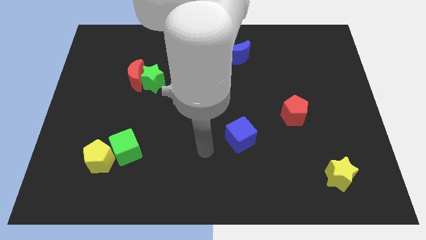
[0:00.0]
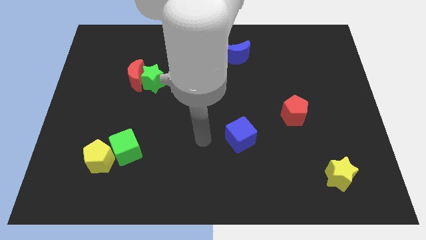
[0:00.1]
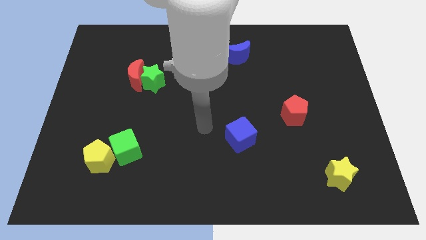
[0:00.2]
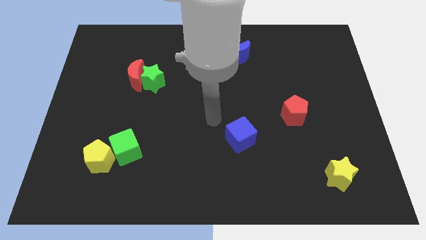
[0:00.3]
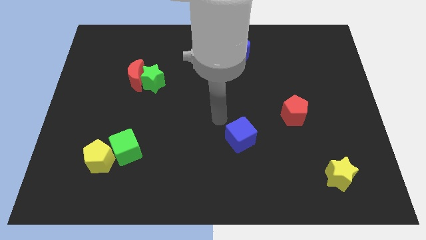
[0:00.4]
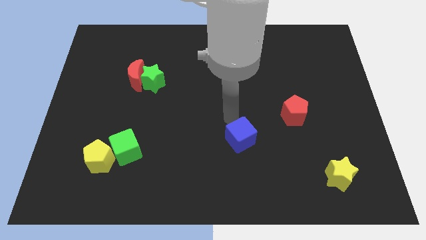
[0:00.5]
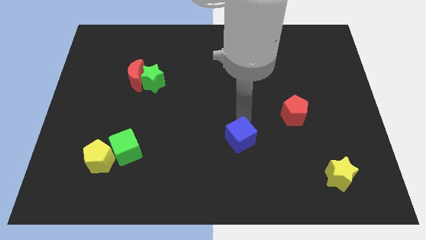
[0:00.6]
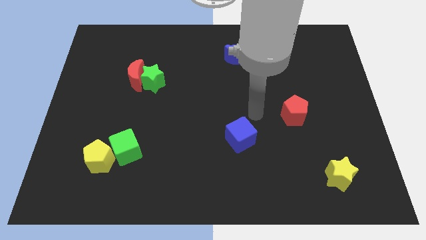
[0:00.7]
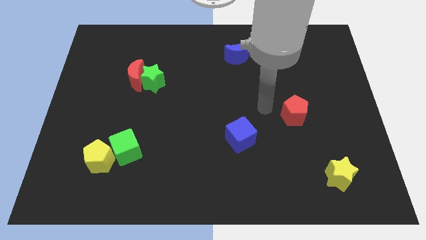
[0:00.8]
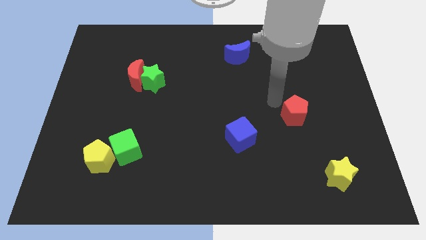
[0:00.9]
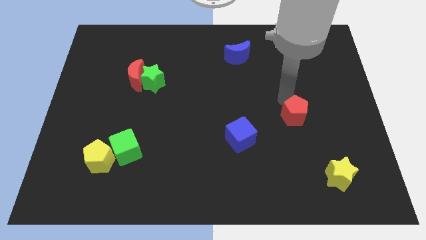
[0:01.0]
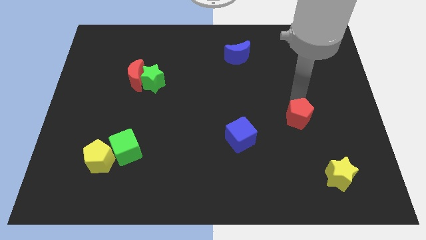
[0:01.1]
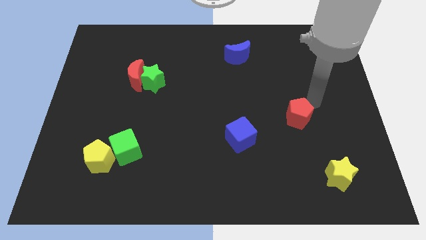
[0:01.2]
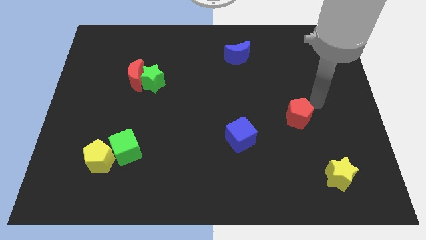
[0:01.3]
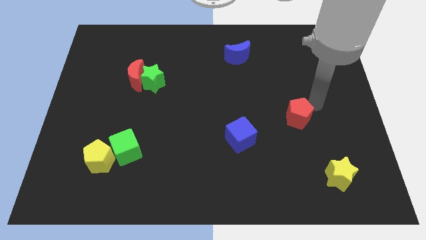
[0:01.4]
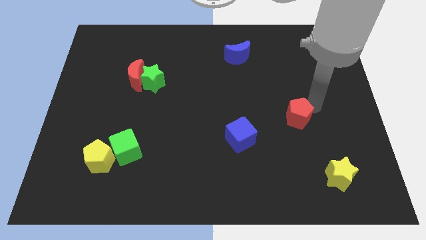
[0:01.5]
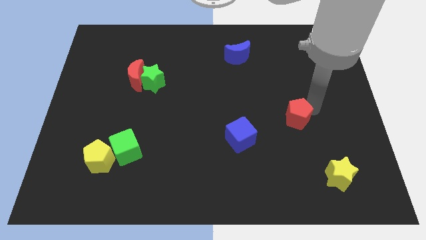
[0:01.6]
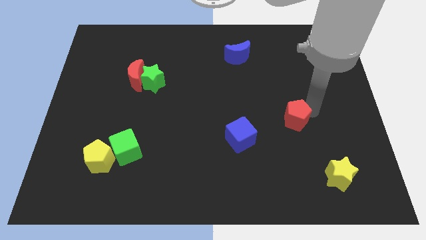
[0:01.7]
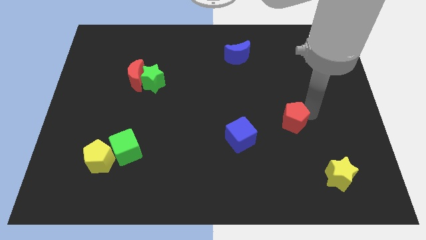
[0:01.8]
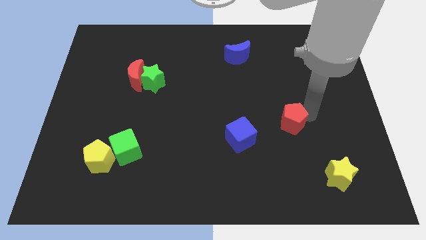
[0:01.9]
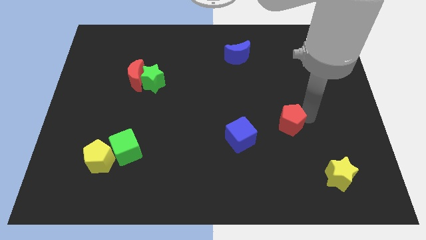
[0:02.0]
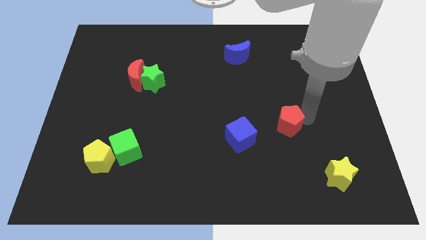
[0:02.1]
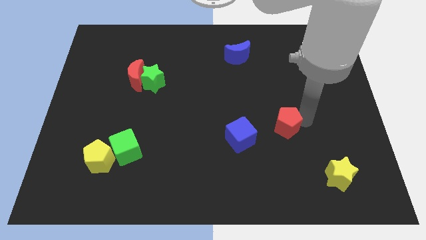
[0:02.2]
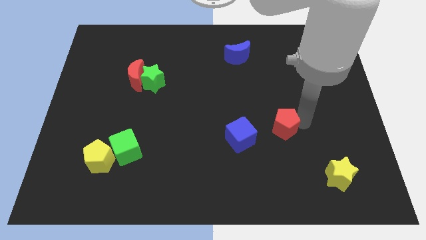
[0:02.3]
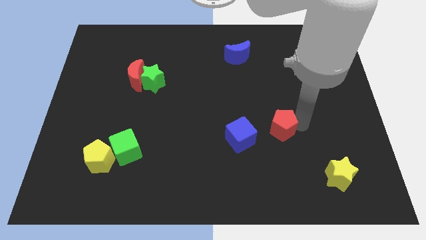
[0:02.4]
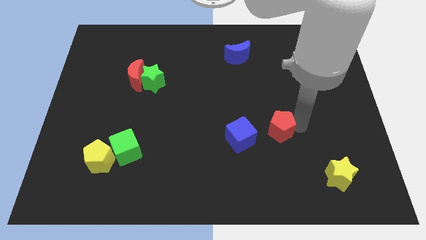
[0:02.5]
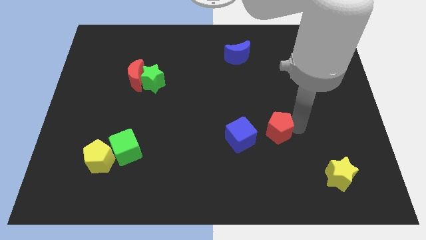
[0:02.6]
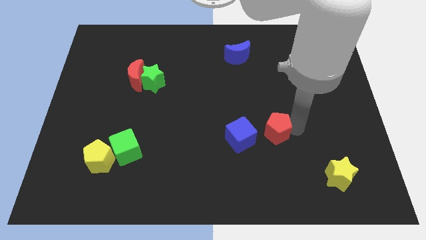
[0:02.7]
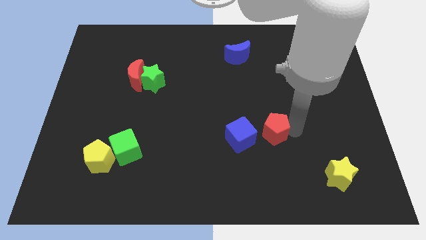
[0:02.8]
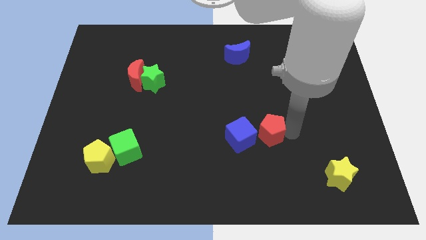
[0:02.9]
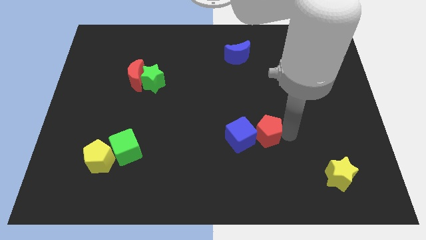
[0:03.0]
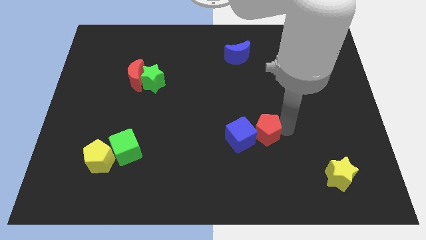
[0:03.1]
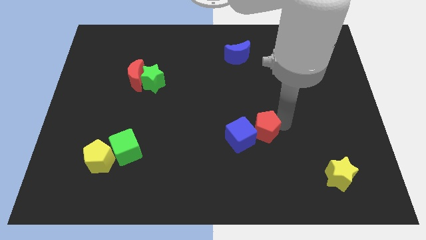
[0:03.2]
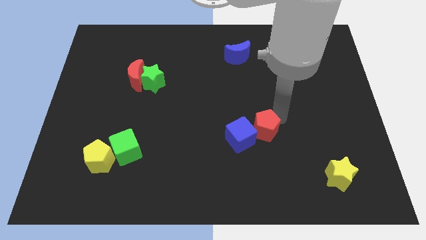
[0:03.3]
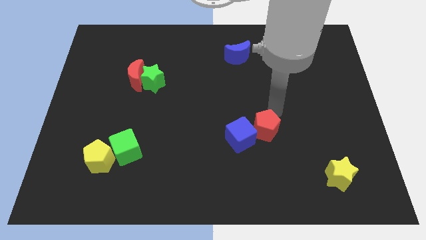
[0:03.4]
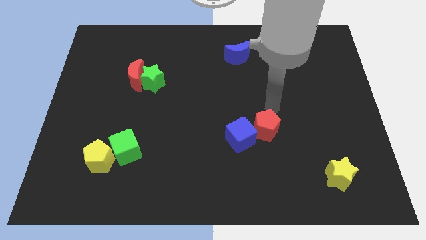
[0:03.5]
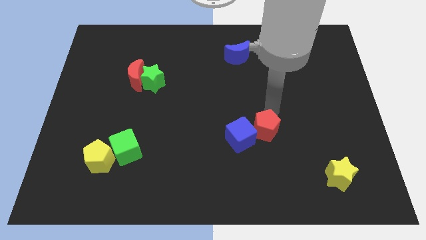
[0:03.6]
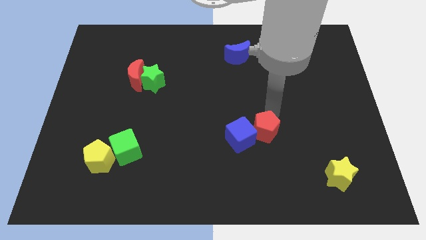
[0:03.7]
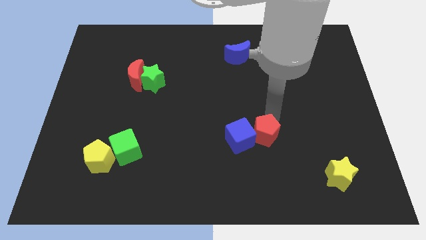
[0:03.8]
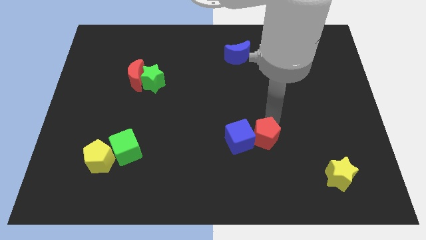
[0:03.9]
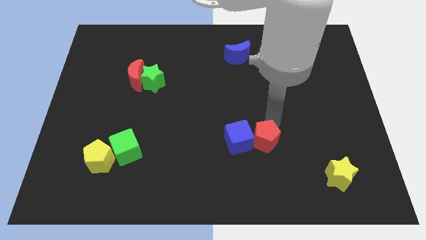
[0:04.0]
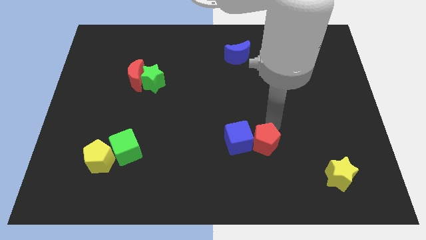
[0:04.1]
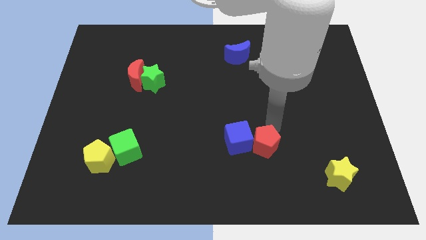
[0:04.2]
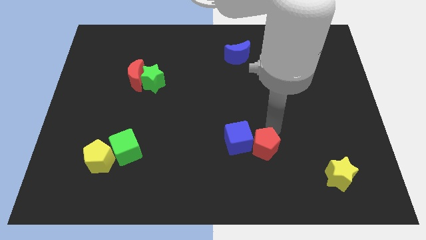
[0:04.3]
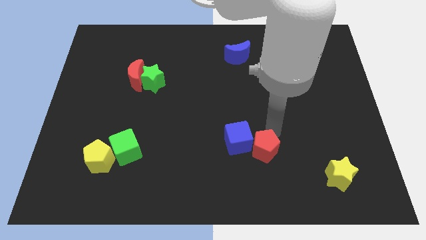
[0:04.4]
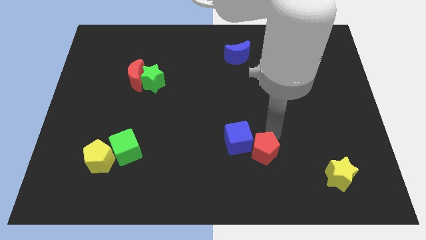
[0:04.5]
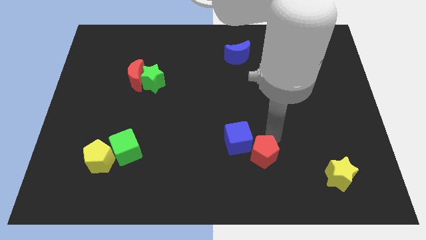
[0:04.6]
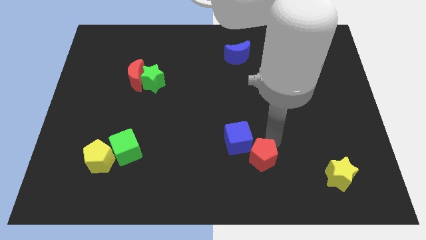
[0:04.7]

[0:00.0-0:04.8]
slide the red pentagon to the bottom side of the blue cube

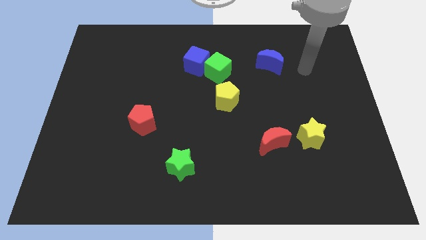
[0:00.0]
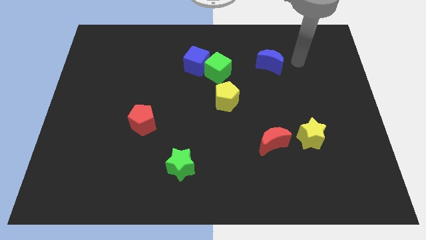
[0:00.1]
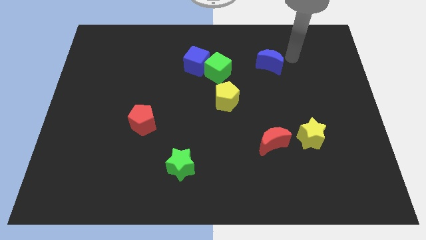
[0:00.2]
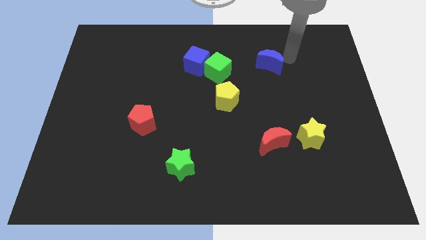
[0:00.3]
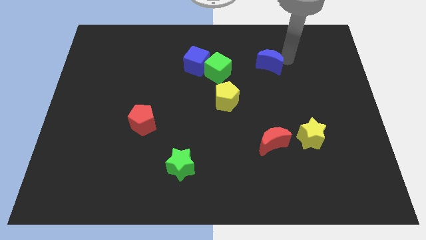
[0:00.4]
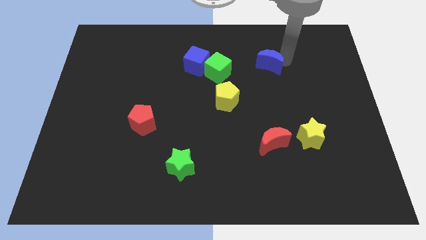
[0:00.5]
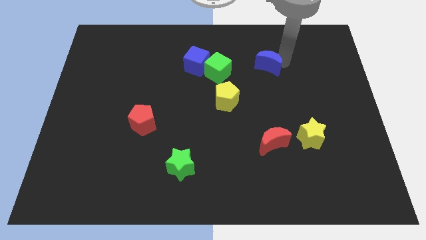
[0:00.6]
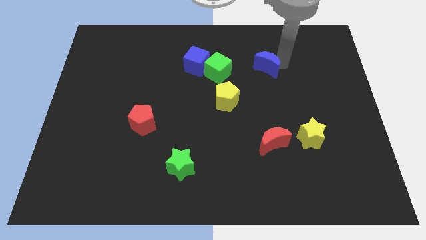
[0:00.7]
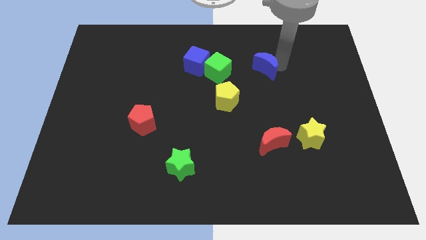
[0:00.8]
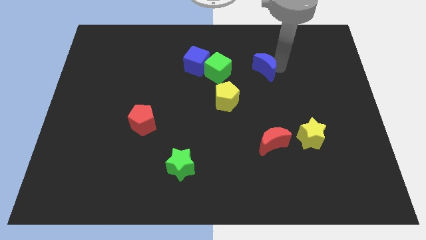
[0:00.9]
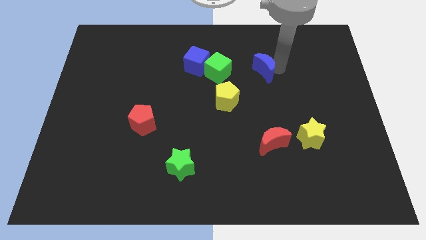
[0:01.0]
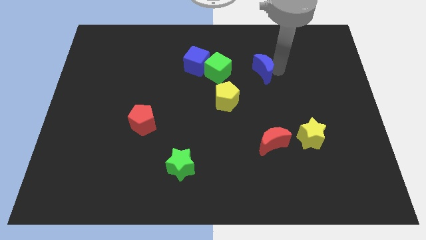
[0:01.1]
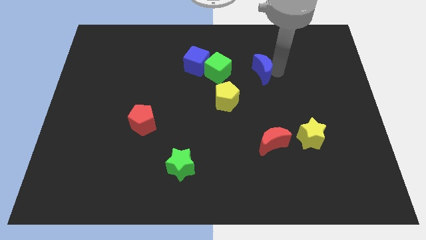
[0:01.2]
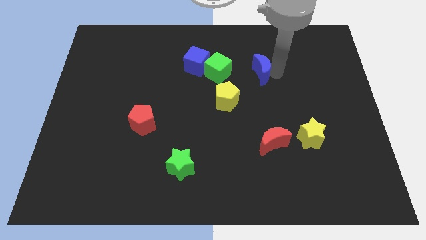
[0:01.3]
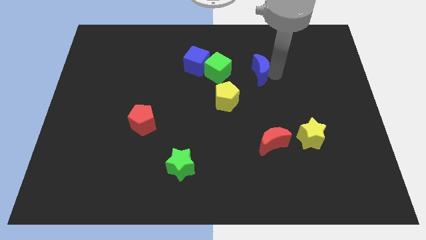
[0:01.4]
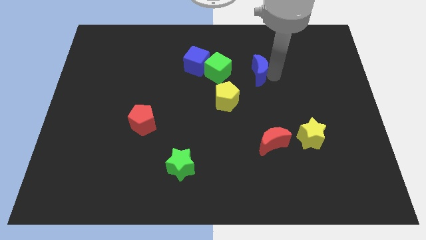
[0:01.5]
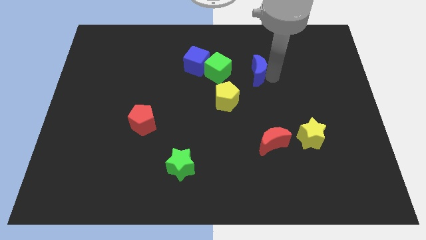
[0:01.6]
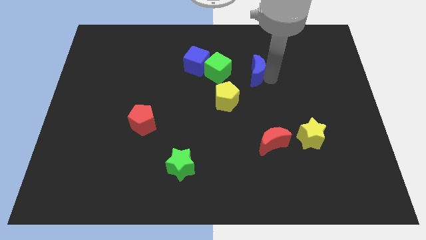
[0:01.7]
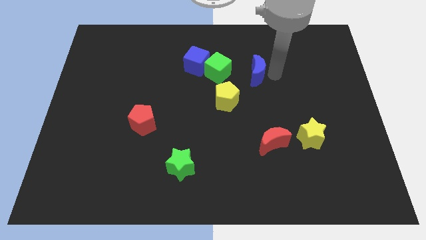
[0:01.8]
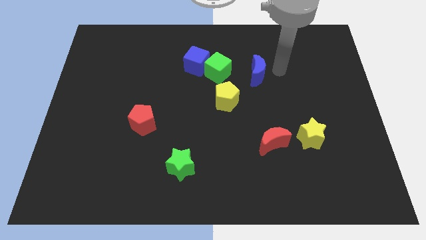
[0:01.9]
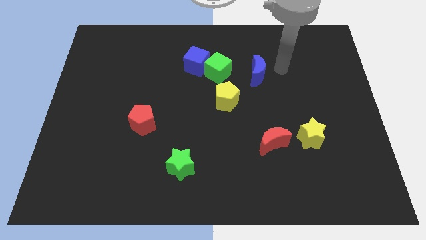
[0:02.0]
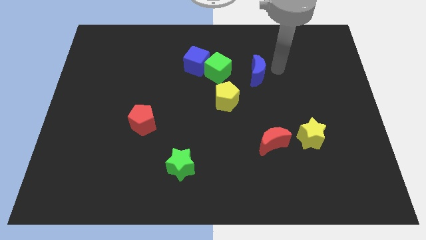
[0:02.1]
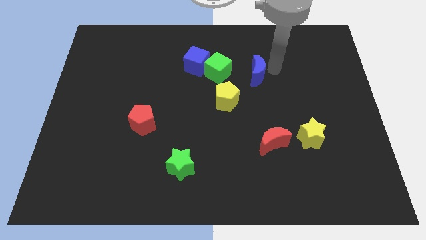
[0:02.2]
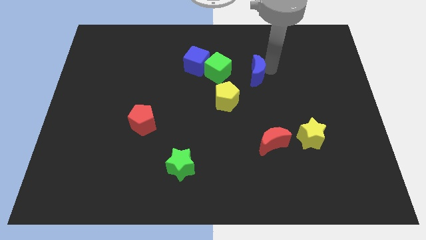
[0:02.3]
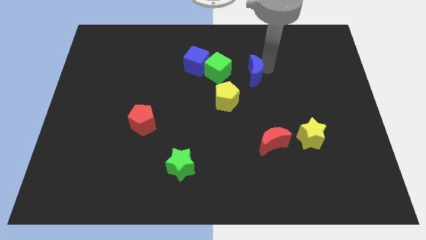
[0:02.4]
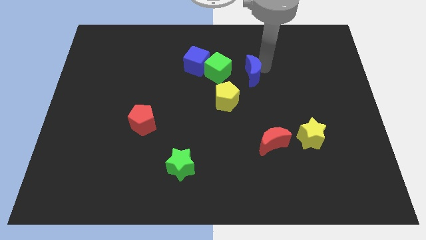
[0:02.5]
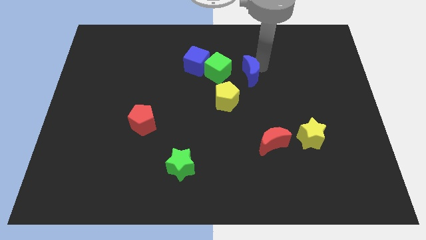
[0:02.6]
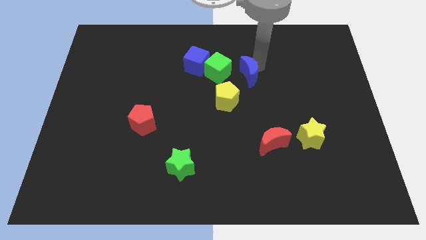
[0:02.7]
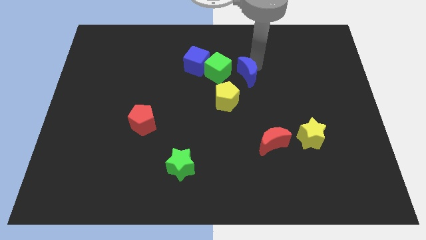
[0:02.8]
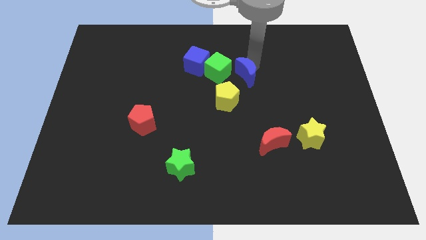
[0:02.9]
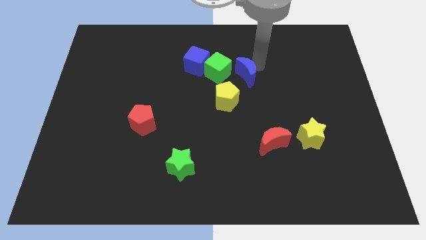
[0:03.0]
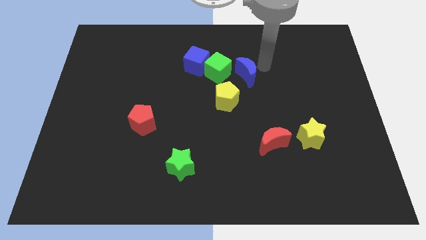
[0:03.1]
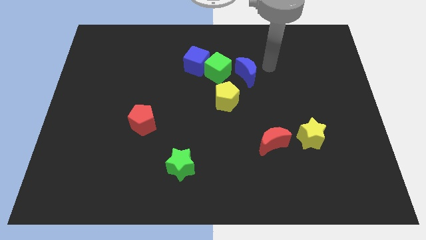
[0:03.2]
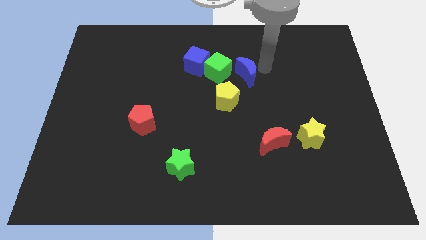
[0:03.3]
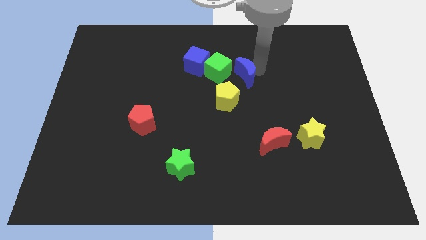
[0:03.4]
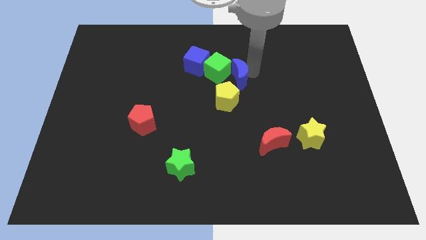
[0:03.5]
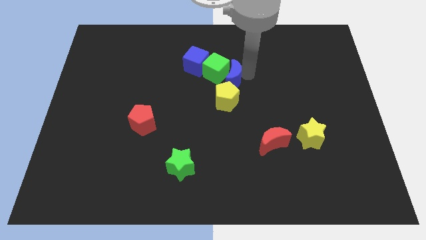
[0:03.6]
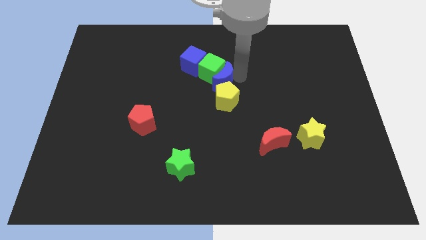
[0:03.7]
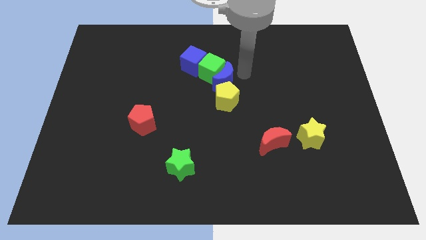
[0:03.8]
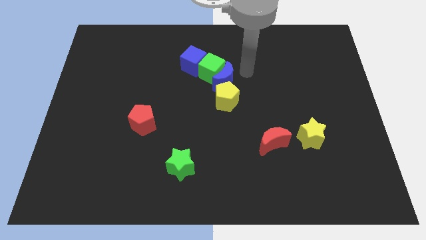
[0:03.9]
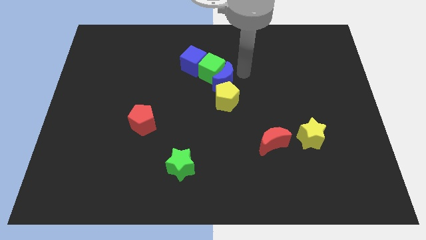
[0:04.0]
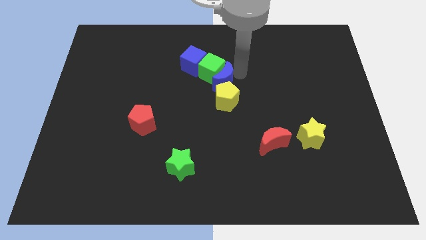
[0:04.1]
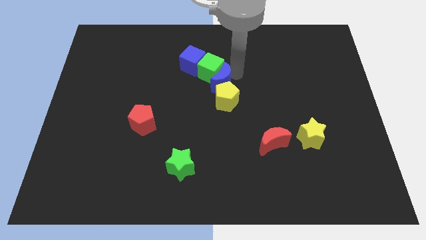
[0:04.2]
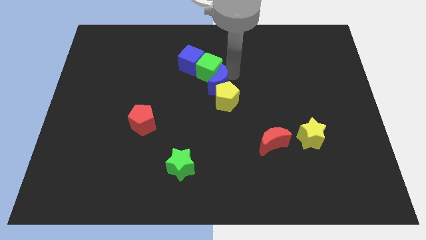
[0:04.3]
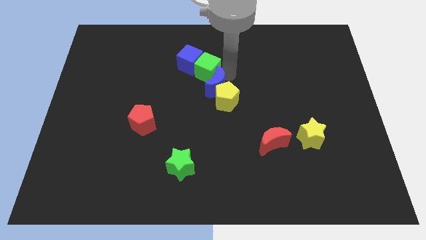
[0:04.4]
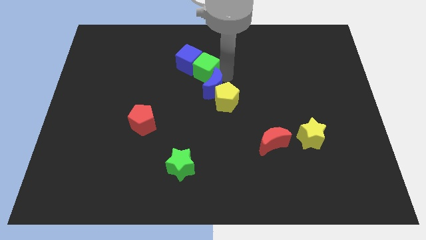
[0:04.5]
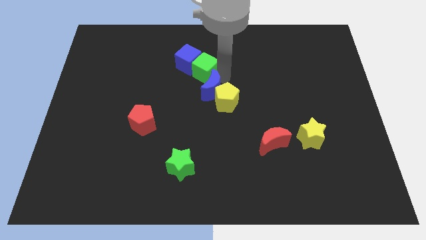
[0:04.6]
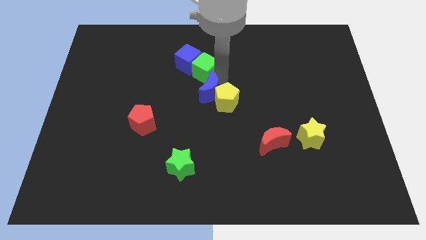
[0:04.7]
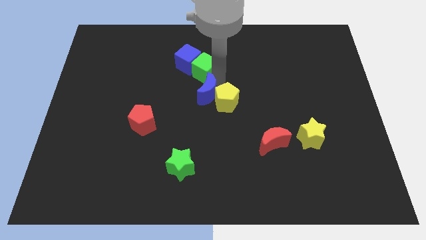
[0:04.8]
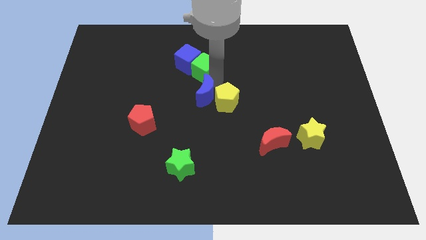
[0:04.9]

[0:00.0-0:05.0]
slide the blue moon below the blue cube
